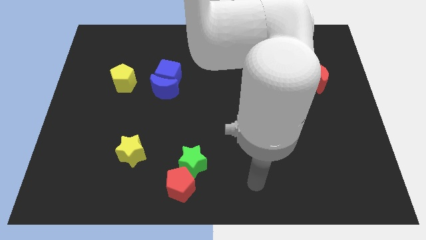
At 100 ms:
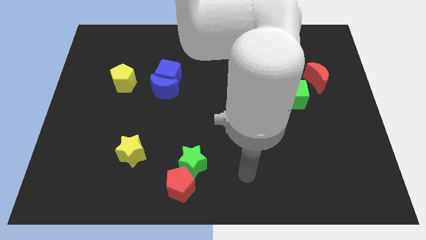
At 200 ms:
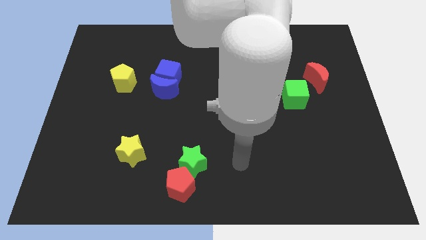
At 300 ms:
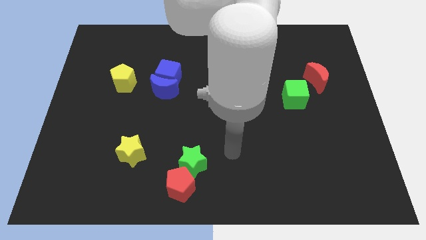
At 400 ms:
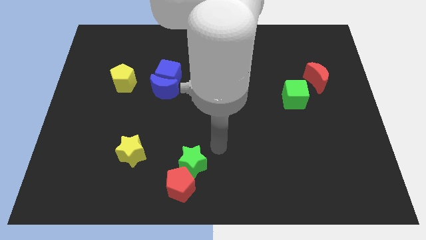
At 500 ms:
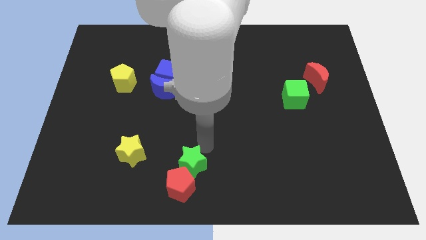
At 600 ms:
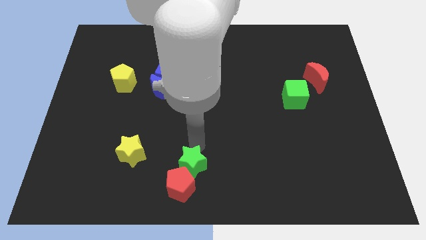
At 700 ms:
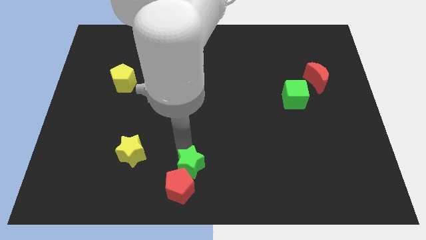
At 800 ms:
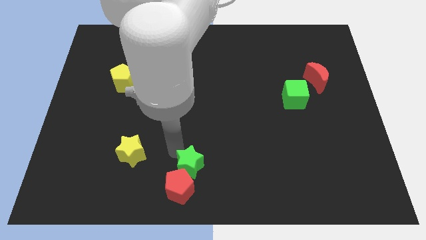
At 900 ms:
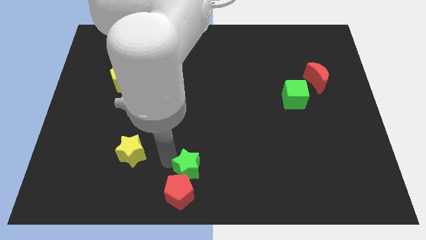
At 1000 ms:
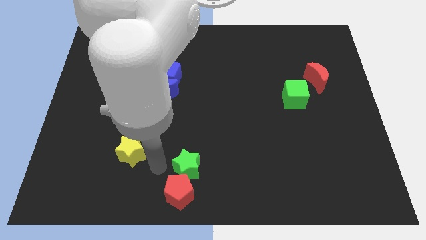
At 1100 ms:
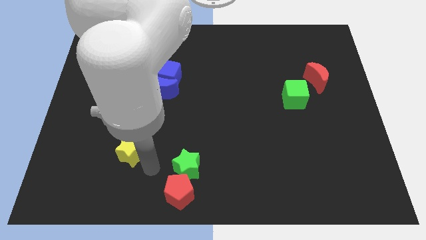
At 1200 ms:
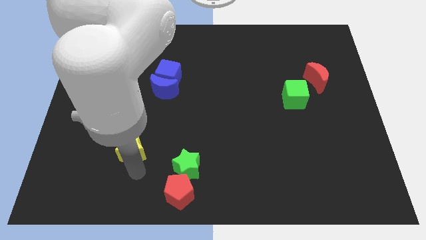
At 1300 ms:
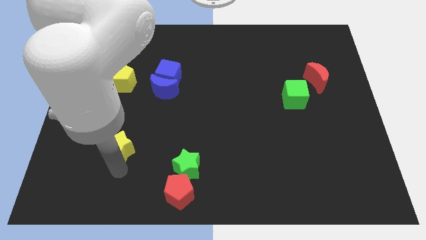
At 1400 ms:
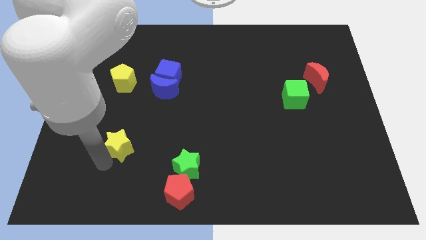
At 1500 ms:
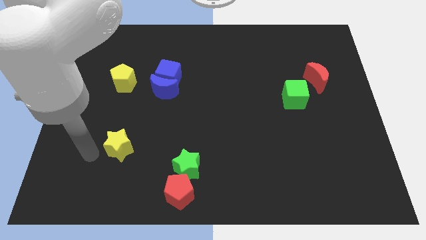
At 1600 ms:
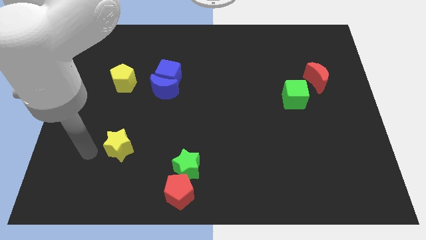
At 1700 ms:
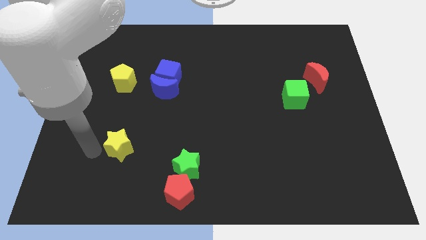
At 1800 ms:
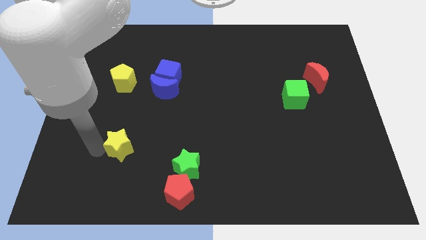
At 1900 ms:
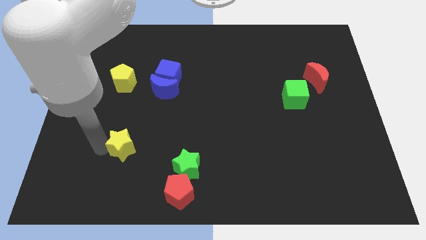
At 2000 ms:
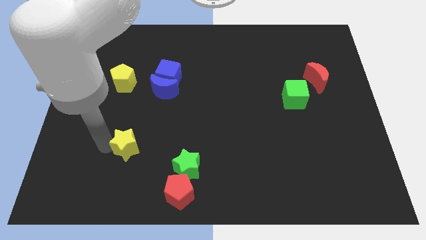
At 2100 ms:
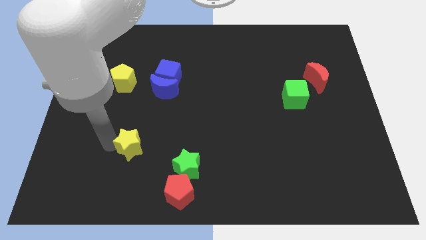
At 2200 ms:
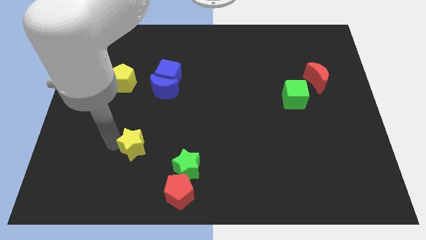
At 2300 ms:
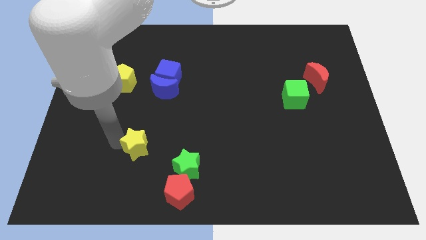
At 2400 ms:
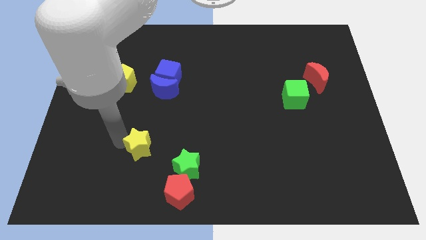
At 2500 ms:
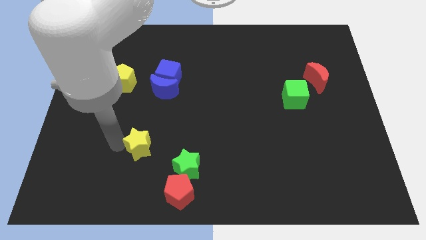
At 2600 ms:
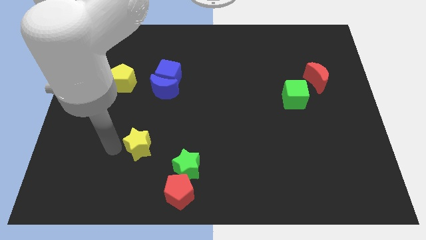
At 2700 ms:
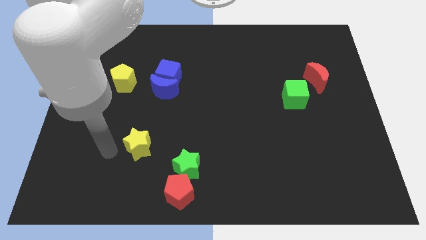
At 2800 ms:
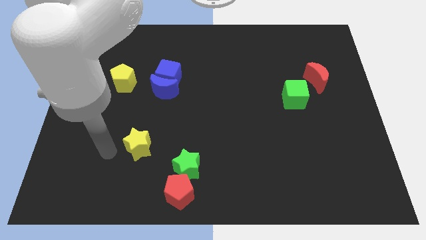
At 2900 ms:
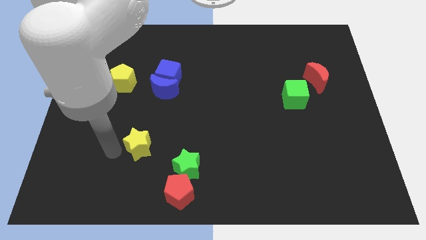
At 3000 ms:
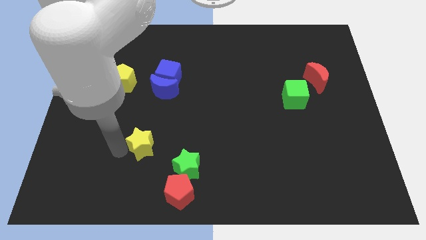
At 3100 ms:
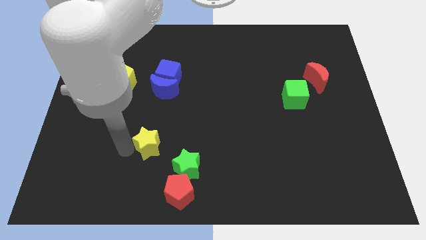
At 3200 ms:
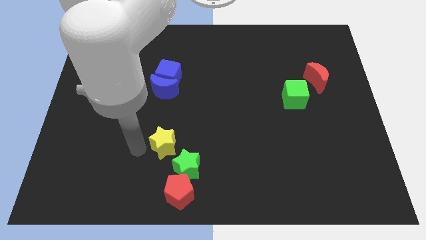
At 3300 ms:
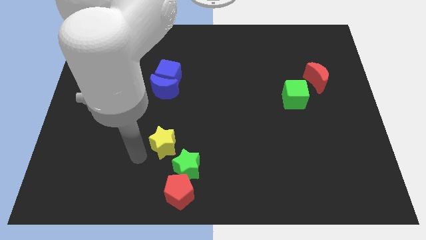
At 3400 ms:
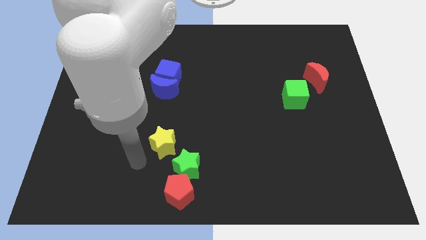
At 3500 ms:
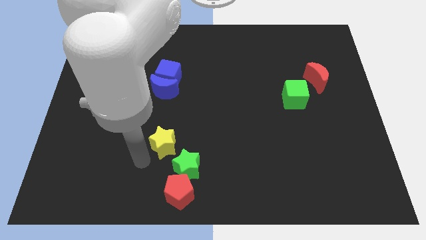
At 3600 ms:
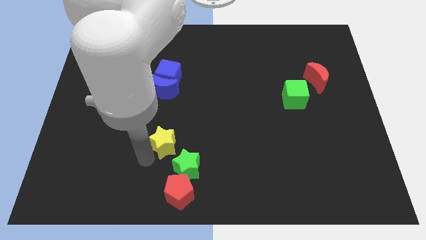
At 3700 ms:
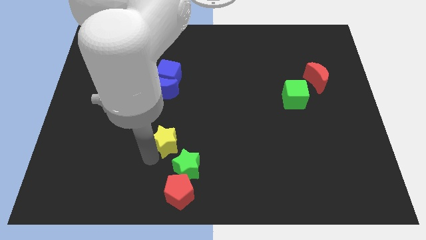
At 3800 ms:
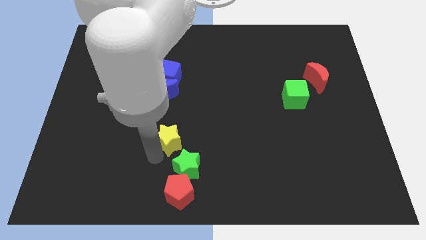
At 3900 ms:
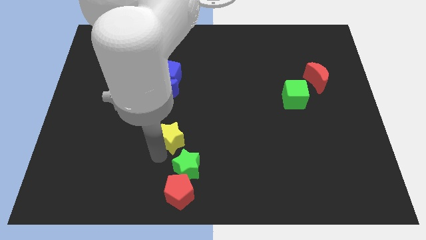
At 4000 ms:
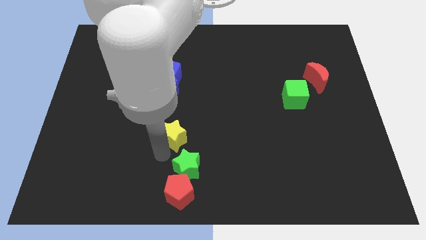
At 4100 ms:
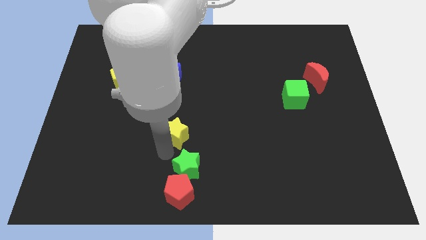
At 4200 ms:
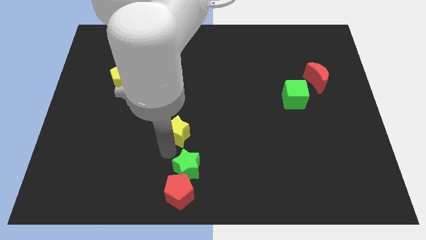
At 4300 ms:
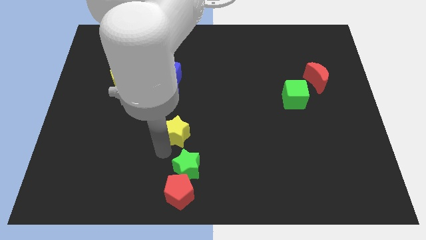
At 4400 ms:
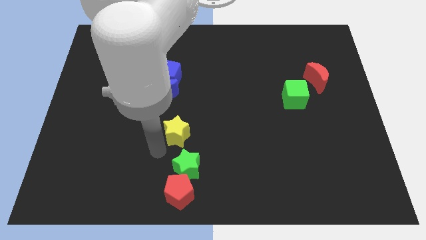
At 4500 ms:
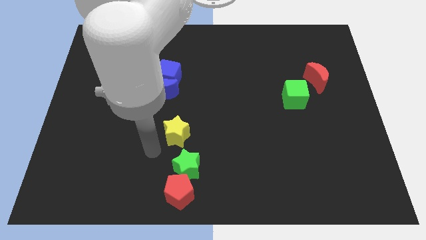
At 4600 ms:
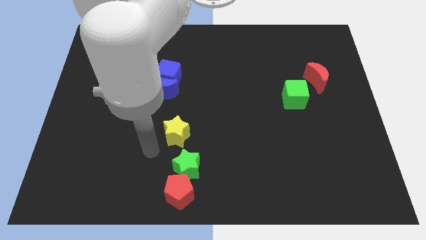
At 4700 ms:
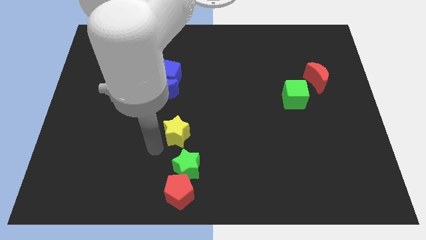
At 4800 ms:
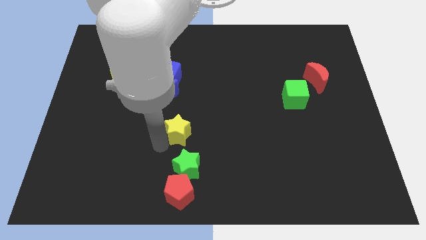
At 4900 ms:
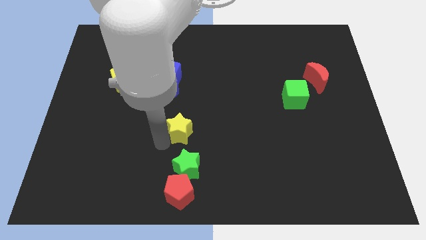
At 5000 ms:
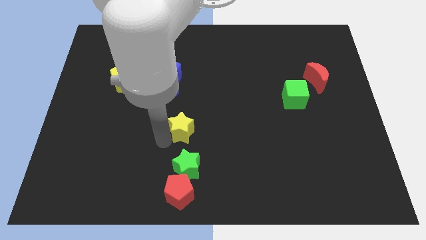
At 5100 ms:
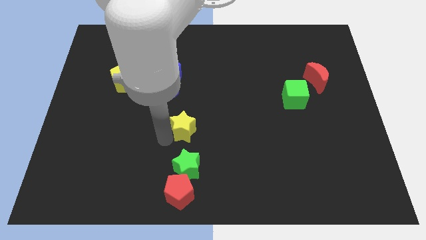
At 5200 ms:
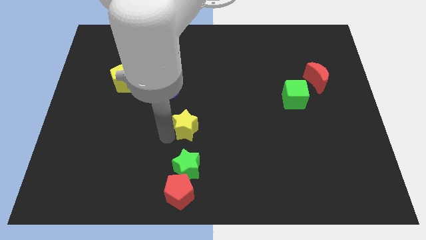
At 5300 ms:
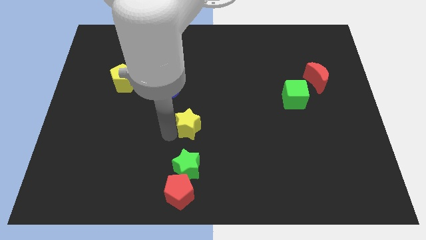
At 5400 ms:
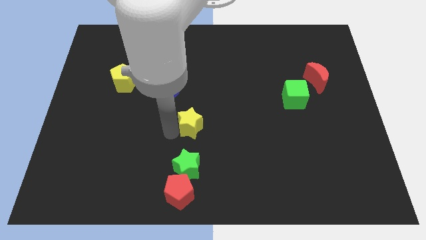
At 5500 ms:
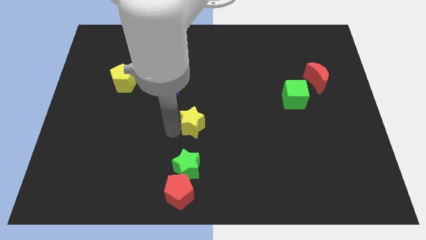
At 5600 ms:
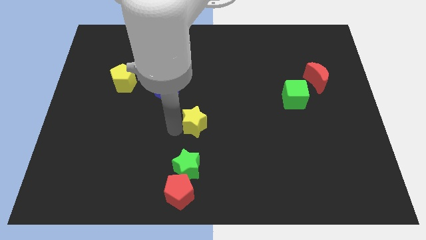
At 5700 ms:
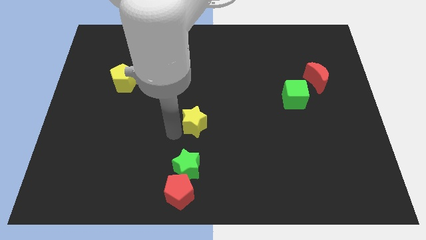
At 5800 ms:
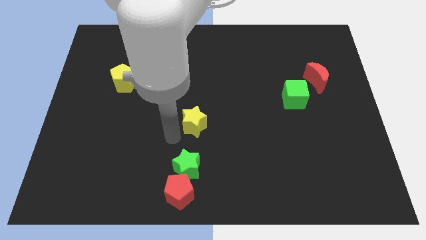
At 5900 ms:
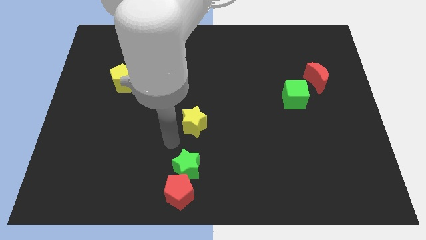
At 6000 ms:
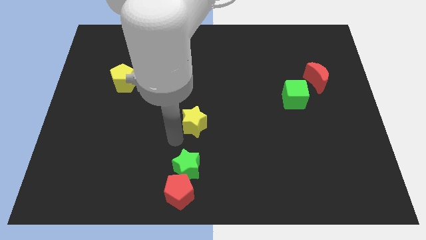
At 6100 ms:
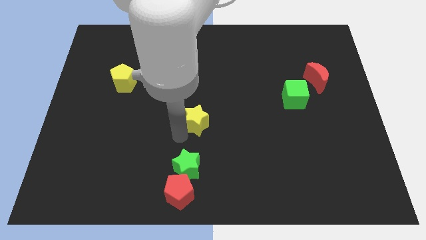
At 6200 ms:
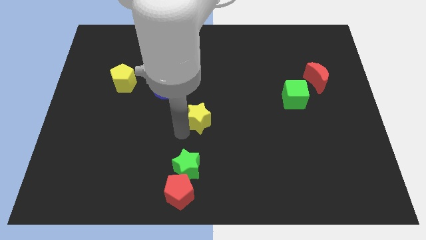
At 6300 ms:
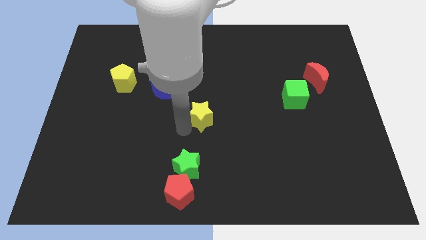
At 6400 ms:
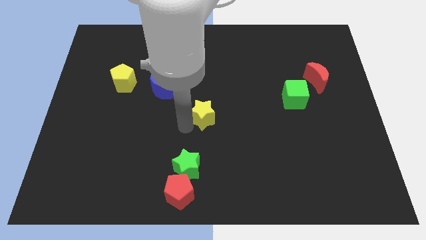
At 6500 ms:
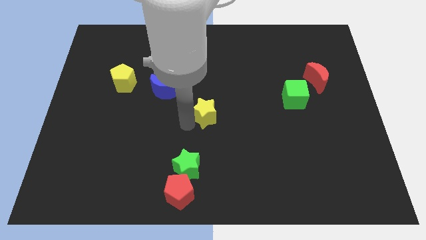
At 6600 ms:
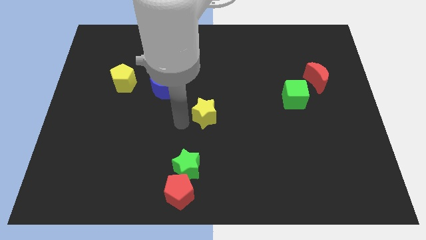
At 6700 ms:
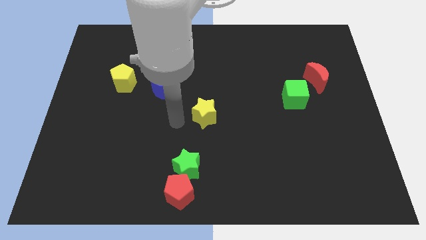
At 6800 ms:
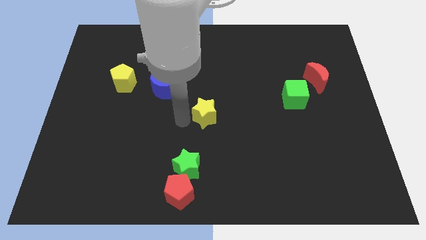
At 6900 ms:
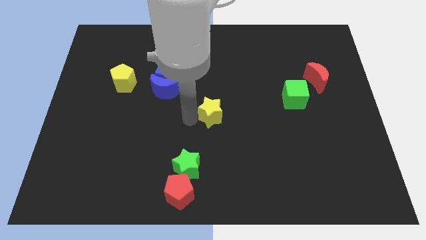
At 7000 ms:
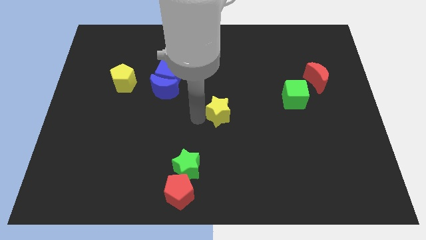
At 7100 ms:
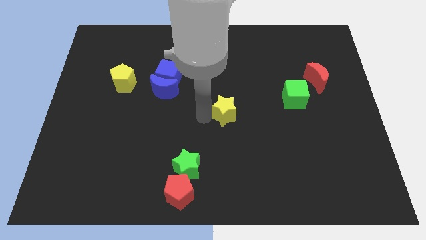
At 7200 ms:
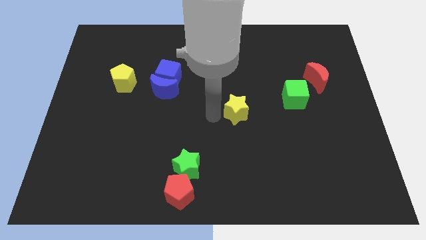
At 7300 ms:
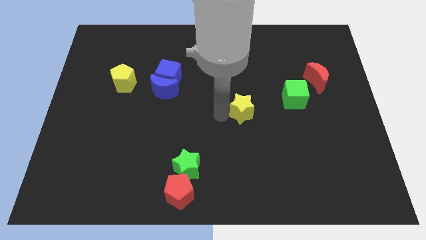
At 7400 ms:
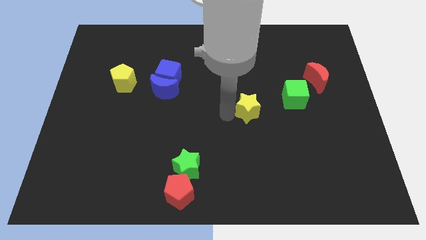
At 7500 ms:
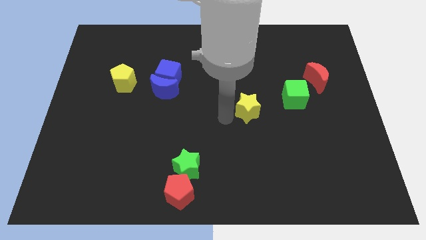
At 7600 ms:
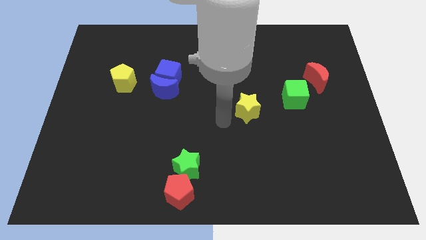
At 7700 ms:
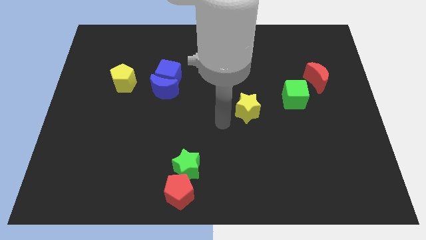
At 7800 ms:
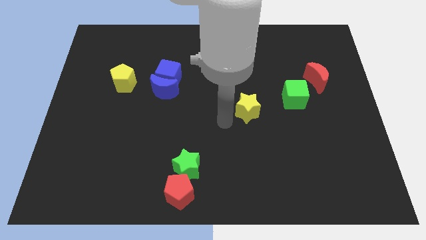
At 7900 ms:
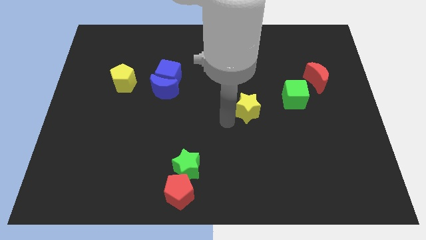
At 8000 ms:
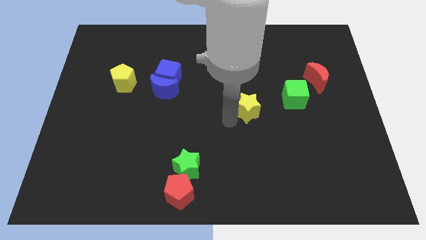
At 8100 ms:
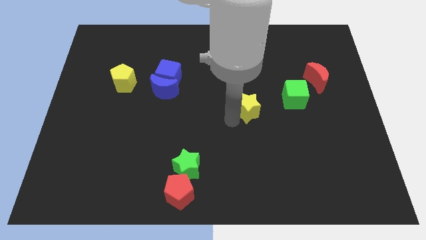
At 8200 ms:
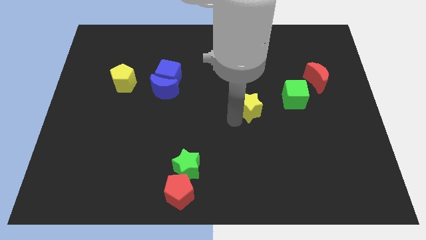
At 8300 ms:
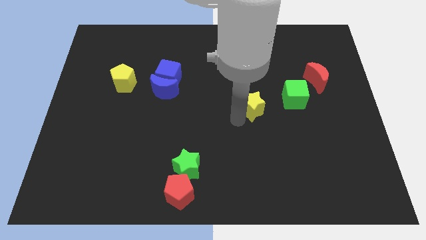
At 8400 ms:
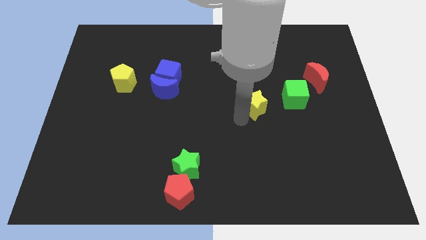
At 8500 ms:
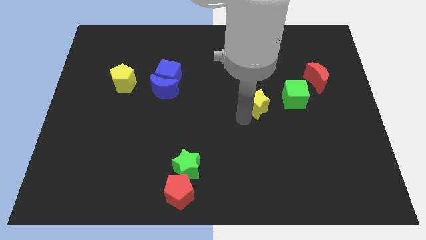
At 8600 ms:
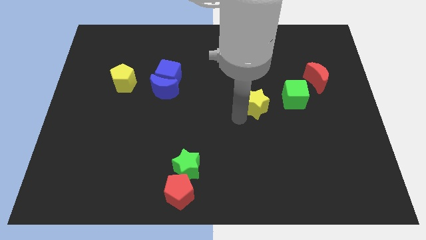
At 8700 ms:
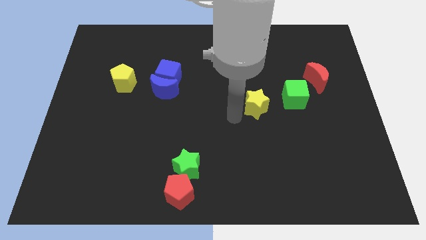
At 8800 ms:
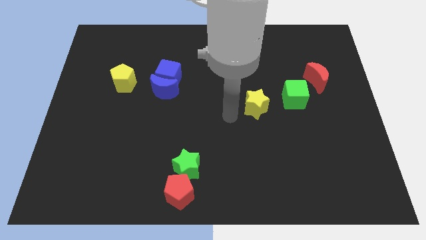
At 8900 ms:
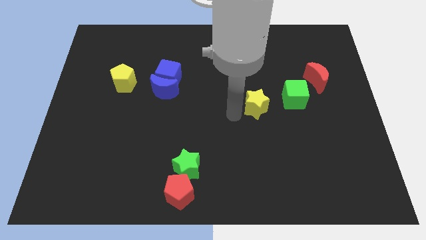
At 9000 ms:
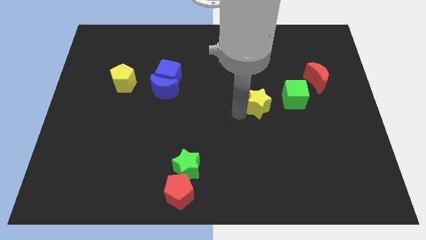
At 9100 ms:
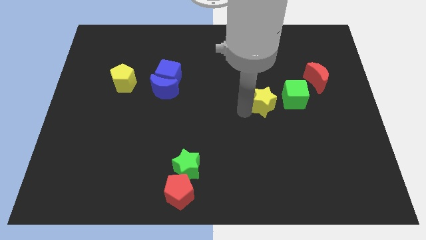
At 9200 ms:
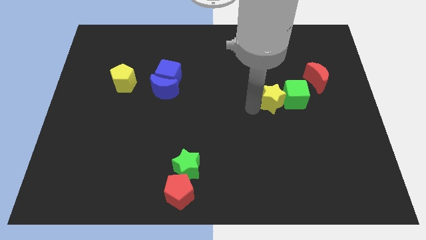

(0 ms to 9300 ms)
move the yellow star close to the green cube
